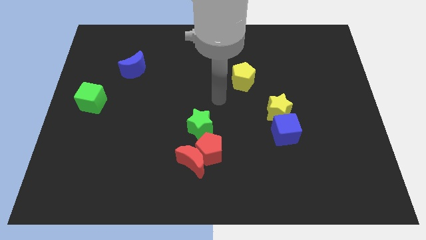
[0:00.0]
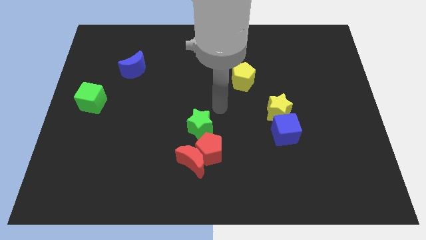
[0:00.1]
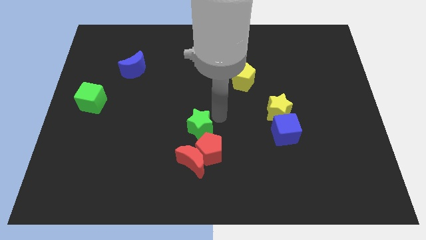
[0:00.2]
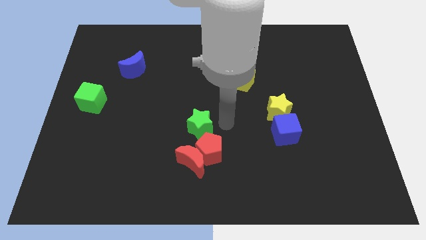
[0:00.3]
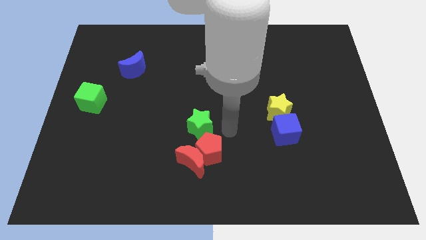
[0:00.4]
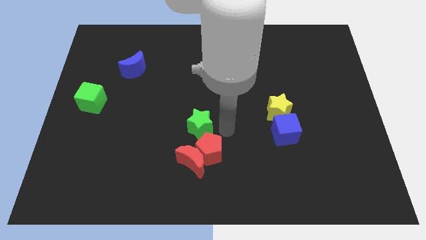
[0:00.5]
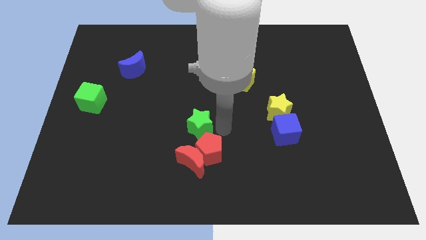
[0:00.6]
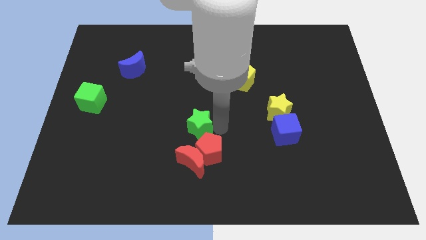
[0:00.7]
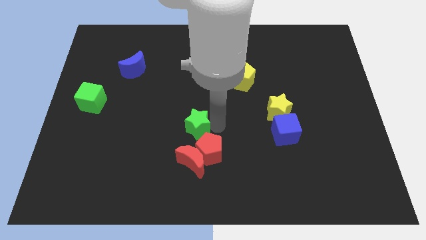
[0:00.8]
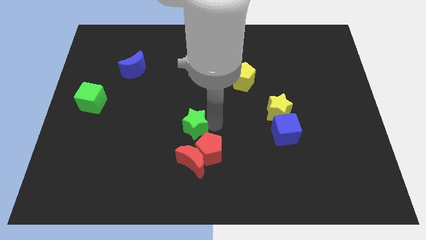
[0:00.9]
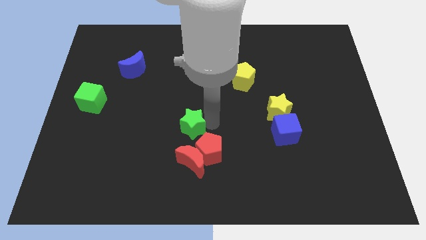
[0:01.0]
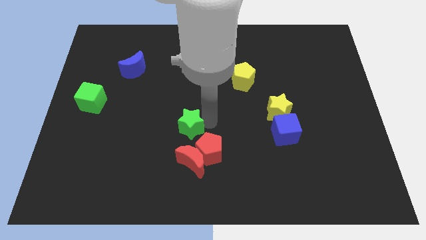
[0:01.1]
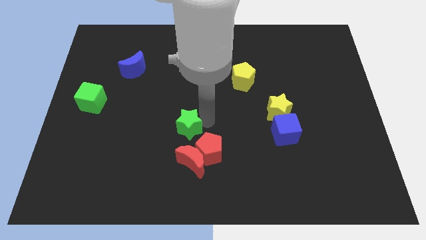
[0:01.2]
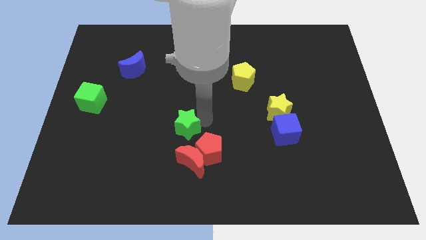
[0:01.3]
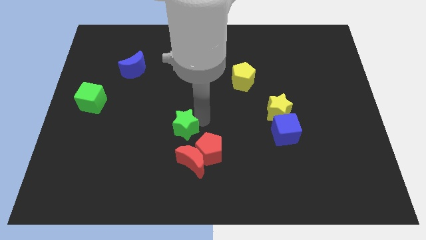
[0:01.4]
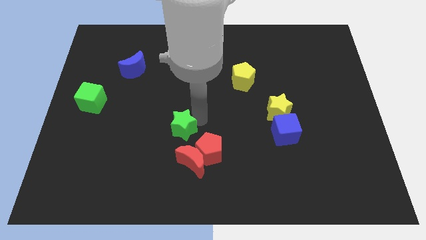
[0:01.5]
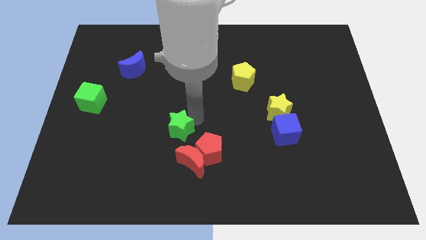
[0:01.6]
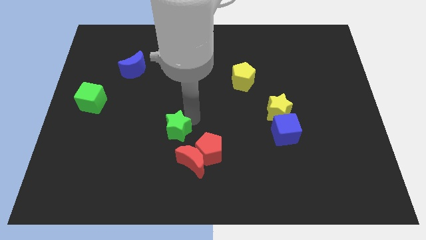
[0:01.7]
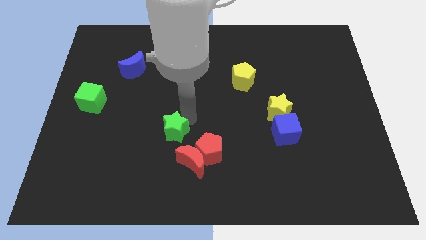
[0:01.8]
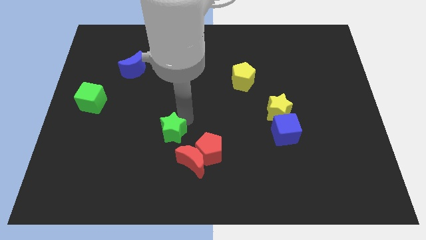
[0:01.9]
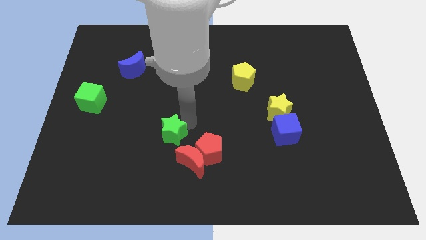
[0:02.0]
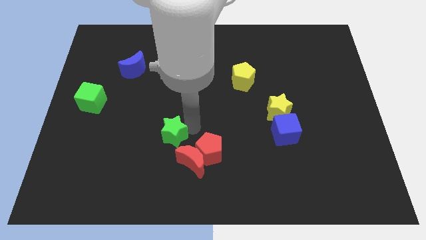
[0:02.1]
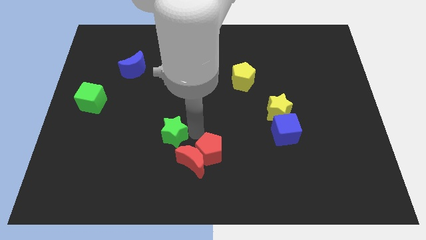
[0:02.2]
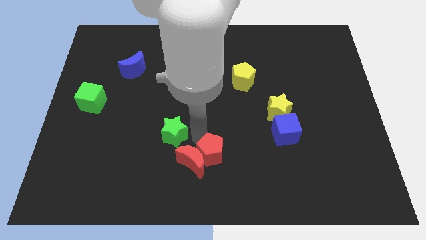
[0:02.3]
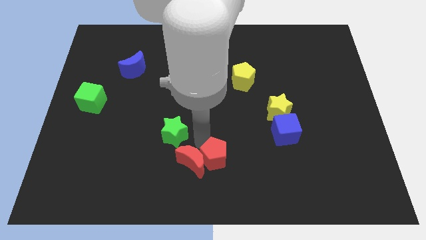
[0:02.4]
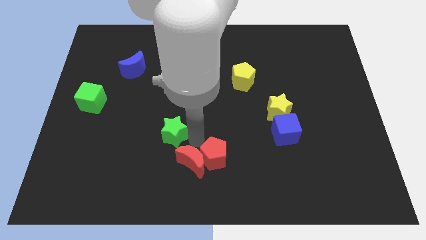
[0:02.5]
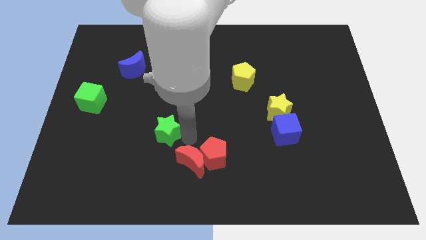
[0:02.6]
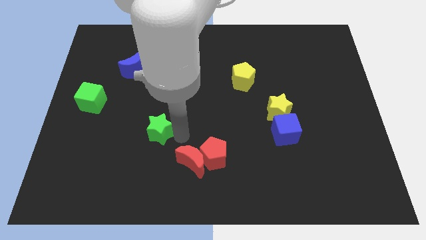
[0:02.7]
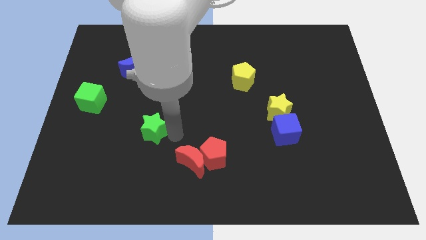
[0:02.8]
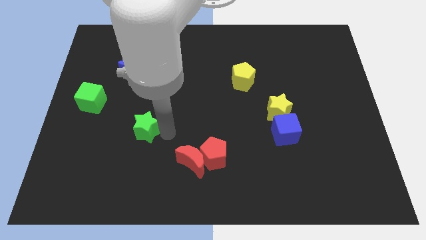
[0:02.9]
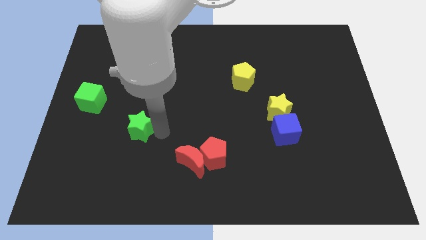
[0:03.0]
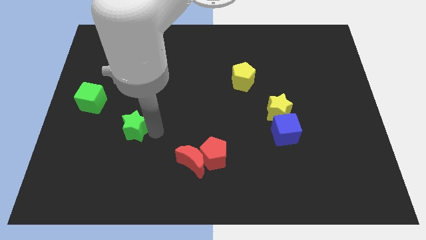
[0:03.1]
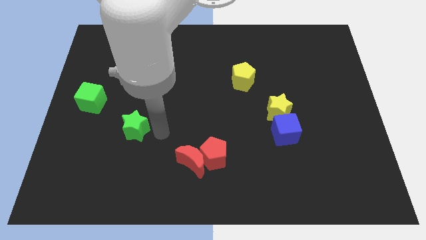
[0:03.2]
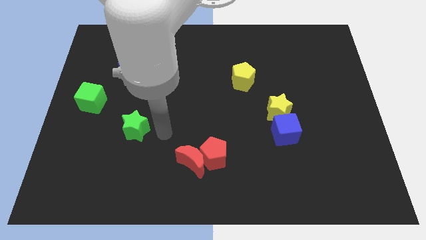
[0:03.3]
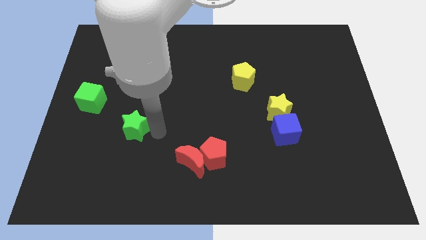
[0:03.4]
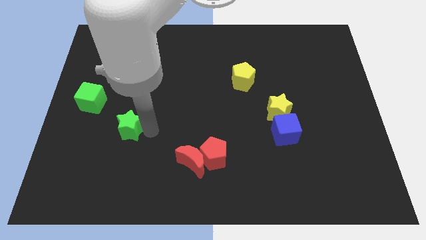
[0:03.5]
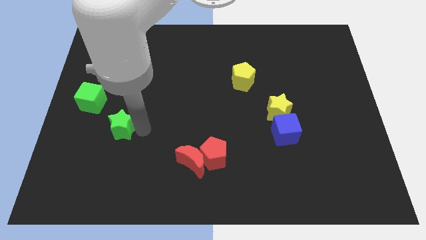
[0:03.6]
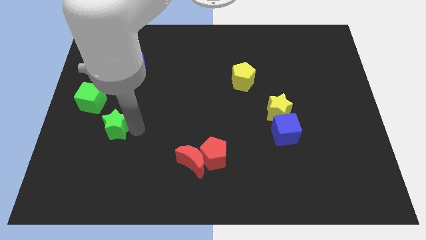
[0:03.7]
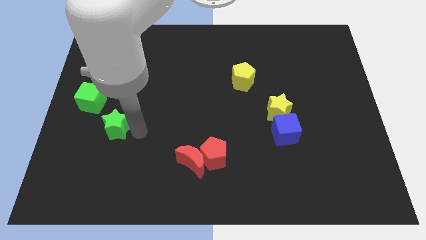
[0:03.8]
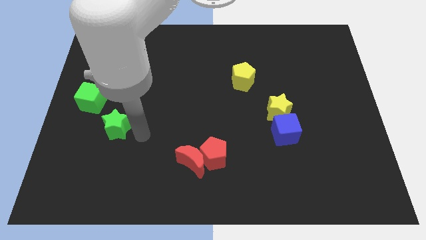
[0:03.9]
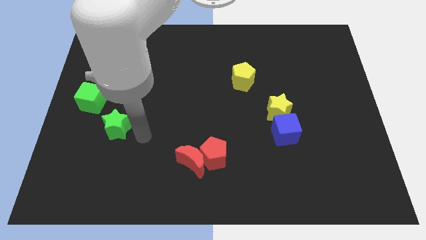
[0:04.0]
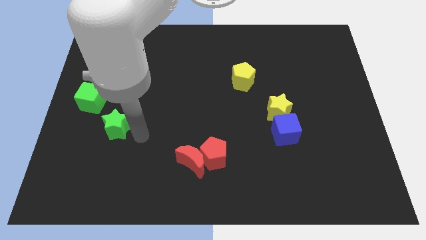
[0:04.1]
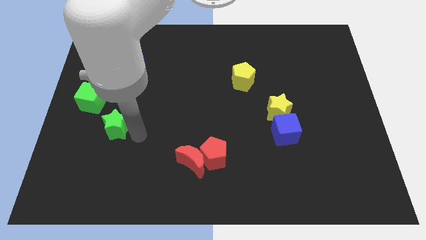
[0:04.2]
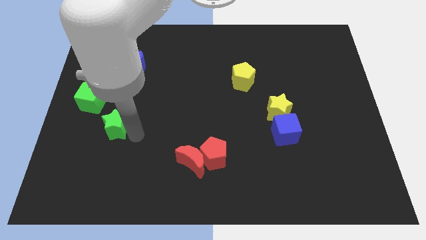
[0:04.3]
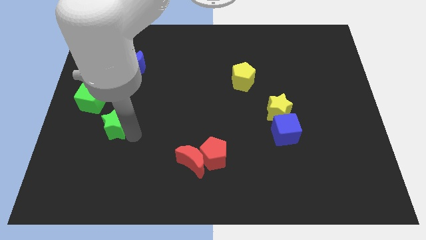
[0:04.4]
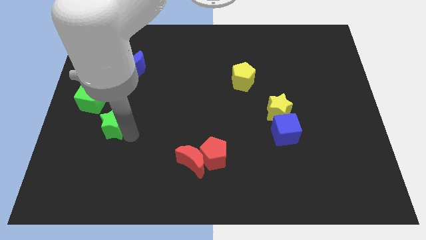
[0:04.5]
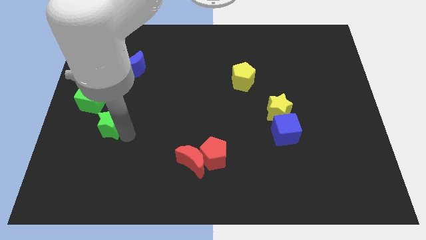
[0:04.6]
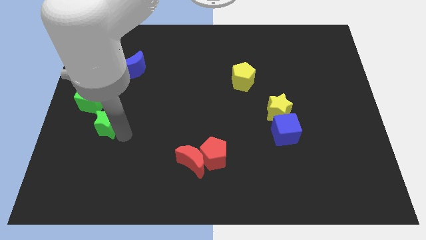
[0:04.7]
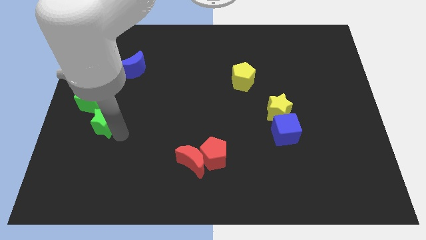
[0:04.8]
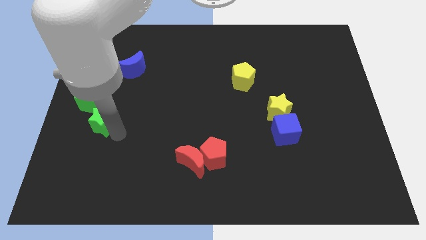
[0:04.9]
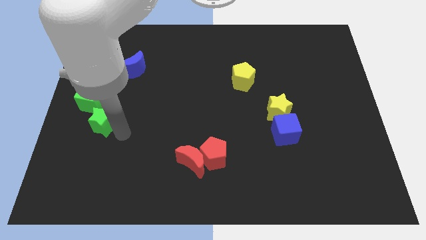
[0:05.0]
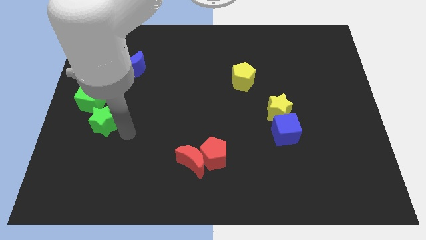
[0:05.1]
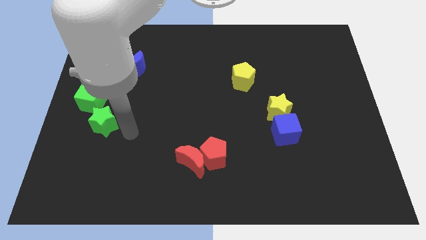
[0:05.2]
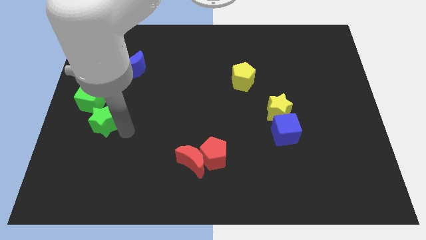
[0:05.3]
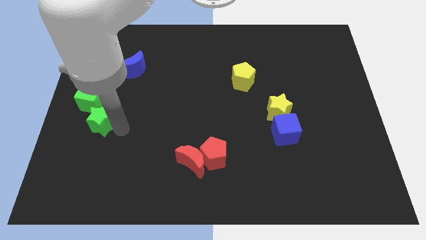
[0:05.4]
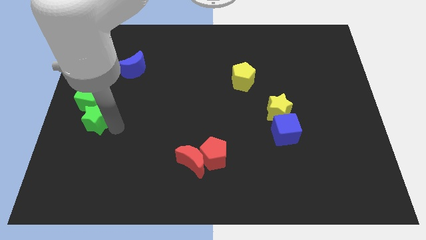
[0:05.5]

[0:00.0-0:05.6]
put the green star to the center left
